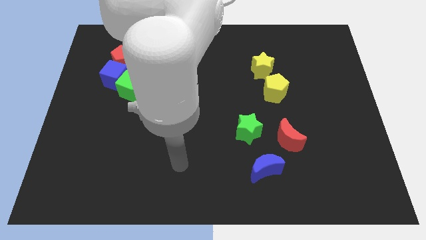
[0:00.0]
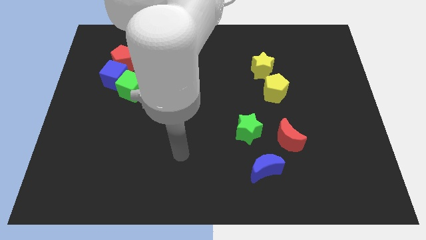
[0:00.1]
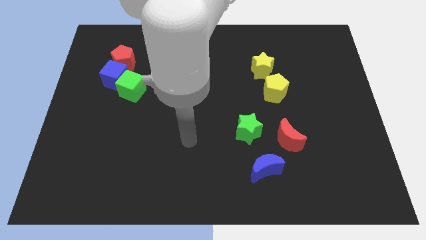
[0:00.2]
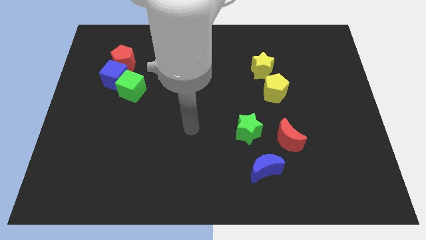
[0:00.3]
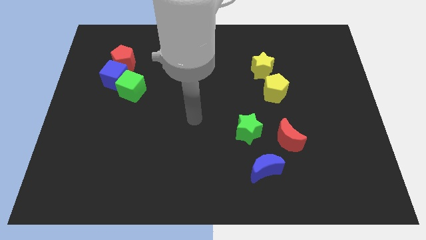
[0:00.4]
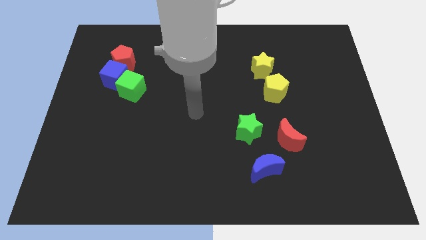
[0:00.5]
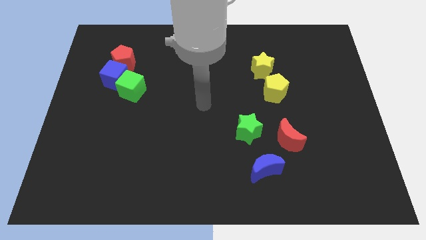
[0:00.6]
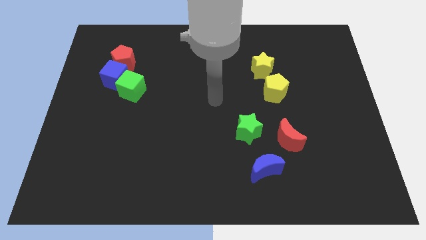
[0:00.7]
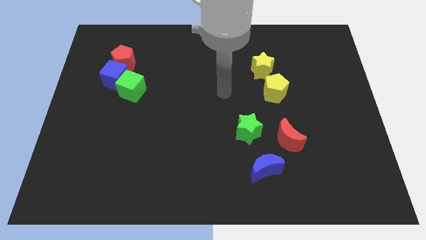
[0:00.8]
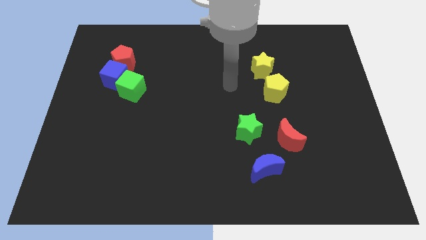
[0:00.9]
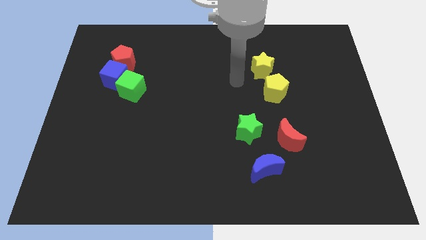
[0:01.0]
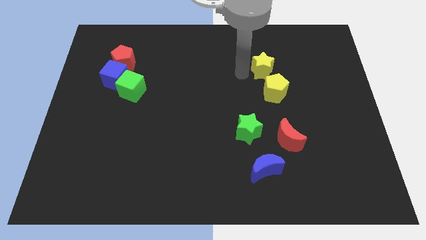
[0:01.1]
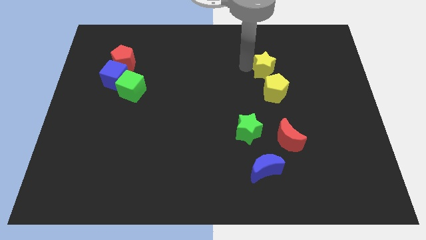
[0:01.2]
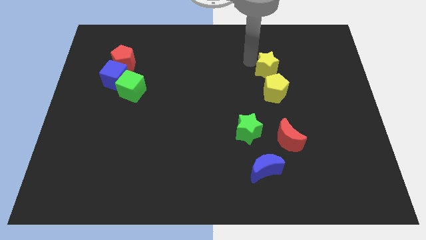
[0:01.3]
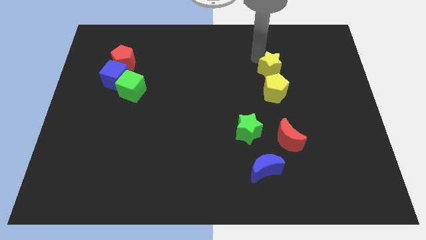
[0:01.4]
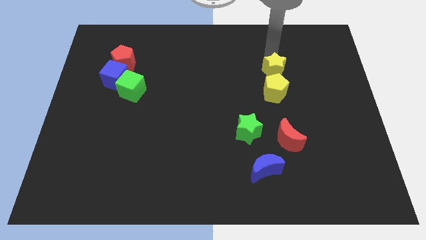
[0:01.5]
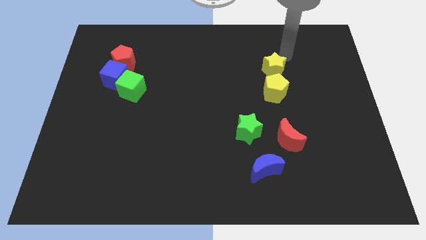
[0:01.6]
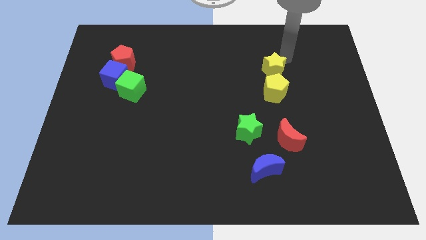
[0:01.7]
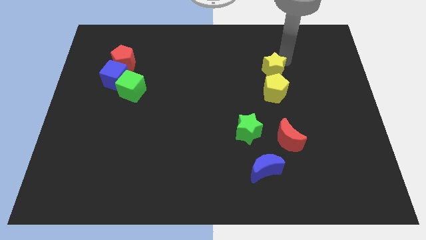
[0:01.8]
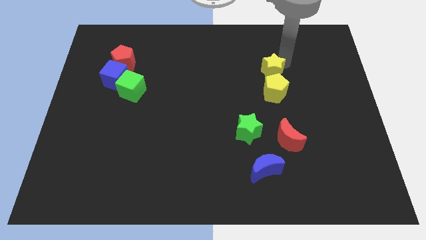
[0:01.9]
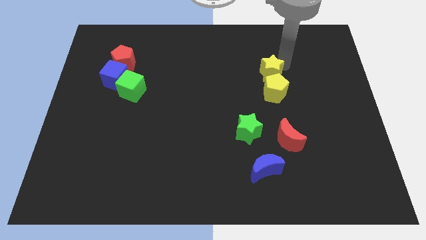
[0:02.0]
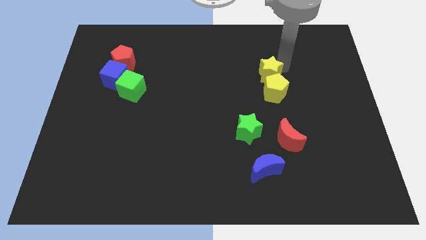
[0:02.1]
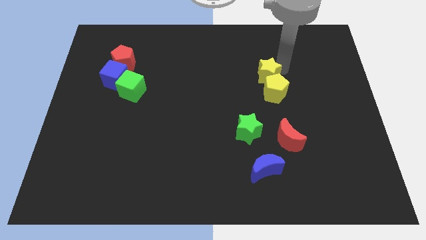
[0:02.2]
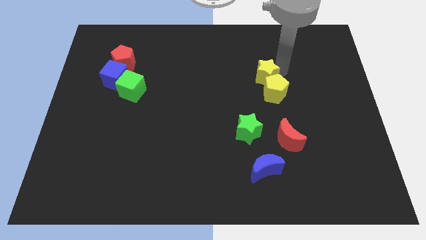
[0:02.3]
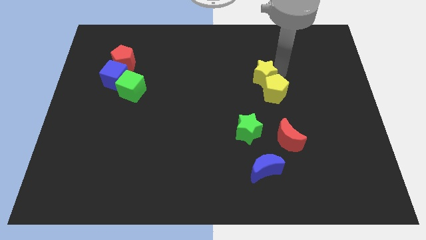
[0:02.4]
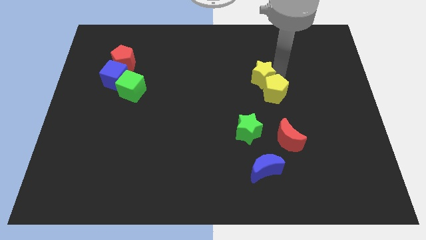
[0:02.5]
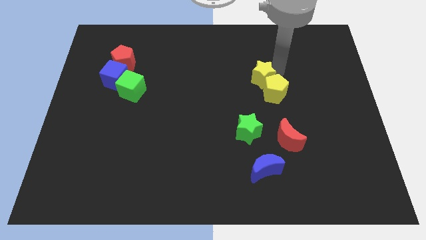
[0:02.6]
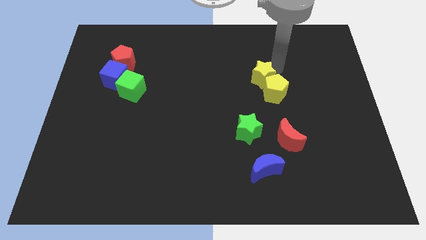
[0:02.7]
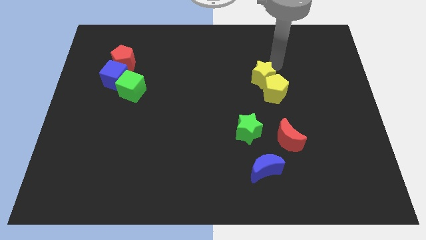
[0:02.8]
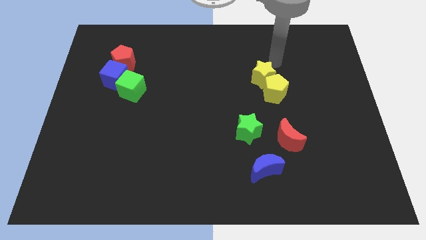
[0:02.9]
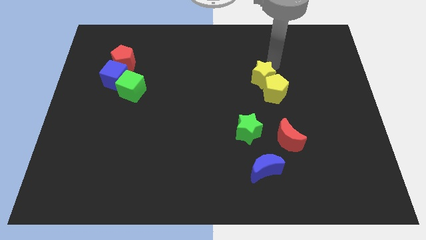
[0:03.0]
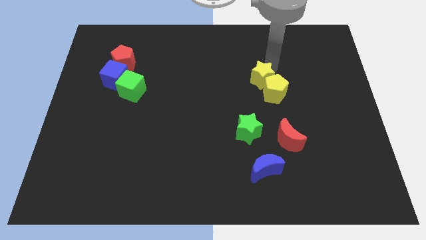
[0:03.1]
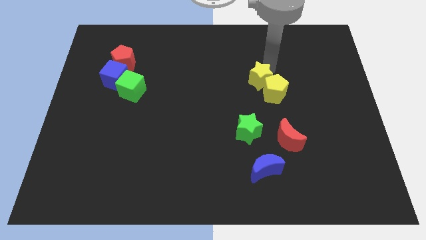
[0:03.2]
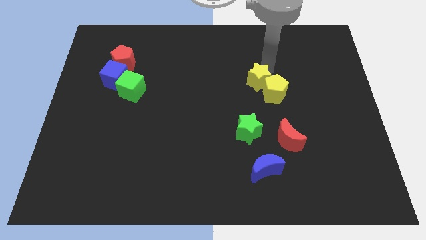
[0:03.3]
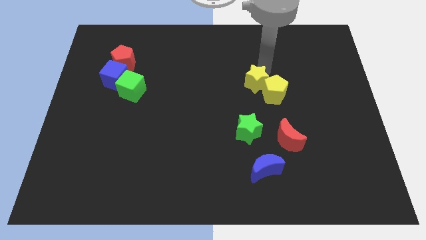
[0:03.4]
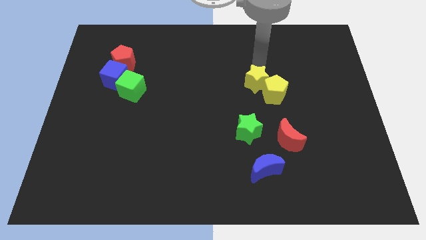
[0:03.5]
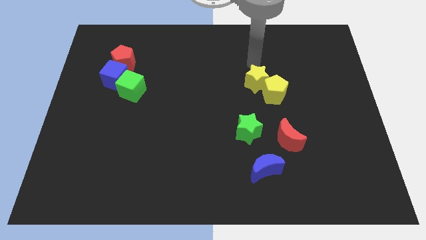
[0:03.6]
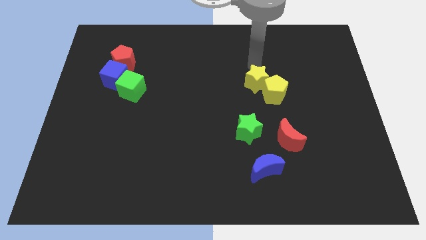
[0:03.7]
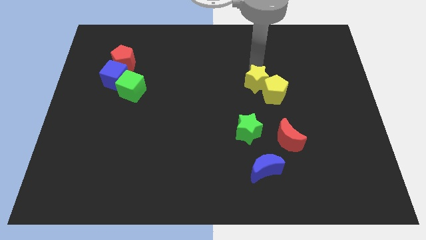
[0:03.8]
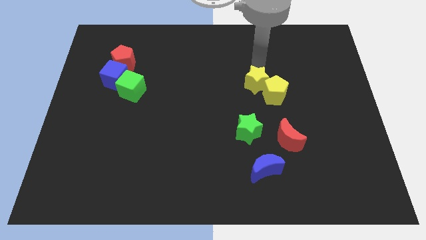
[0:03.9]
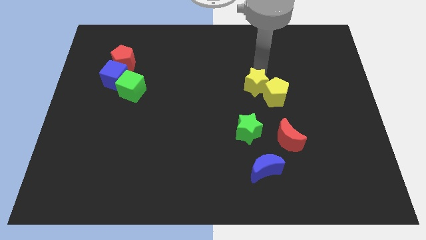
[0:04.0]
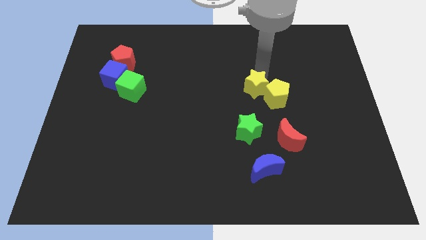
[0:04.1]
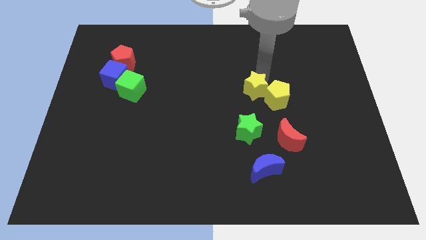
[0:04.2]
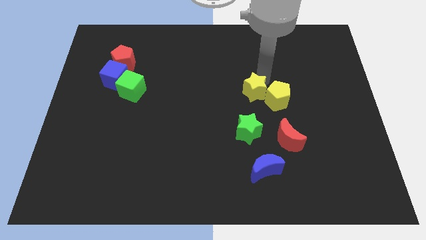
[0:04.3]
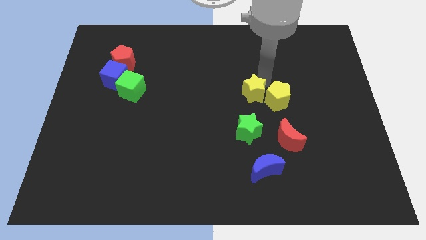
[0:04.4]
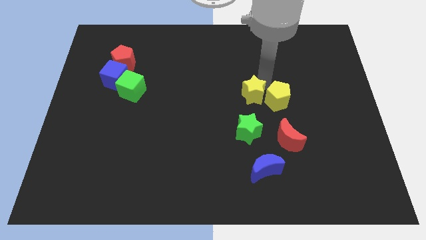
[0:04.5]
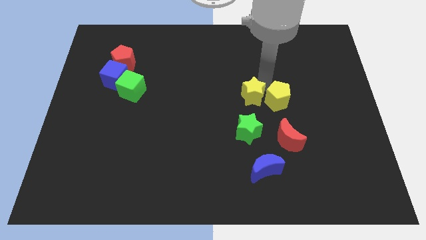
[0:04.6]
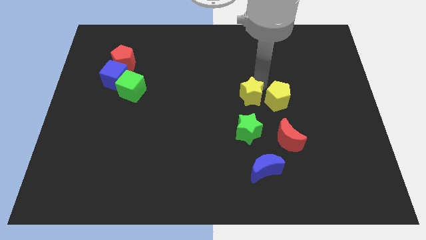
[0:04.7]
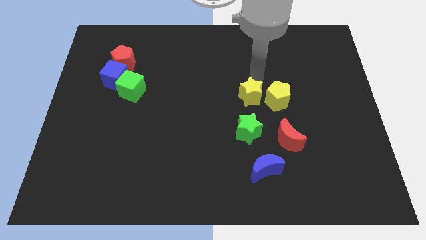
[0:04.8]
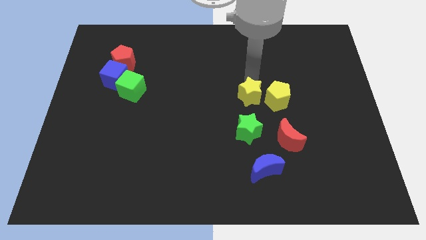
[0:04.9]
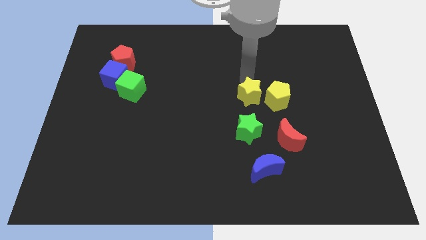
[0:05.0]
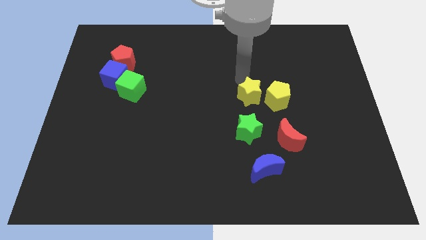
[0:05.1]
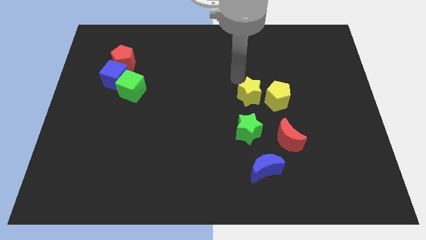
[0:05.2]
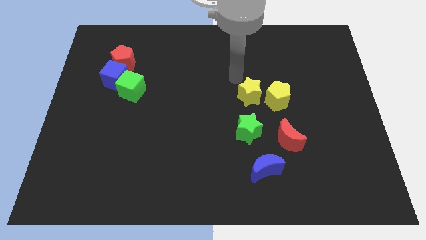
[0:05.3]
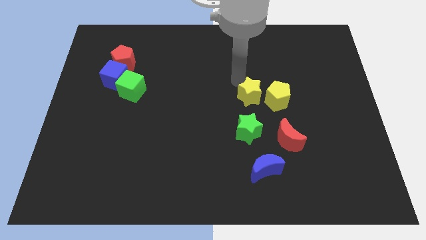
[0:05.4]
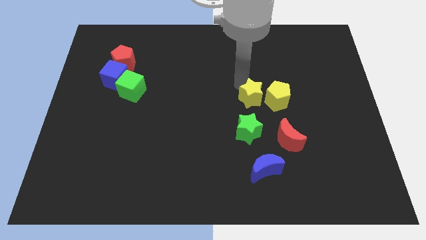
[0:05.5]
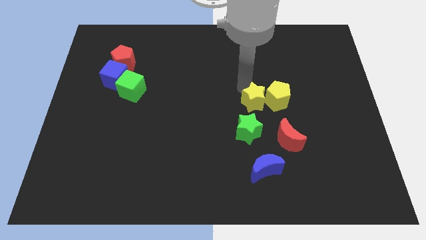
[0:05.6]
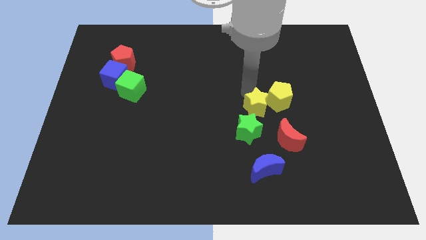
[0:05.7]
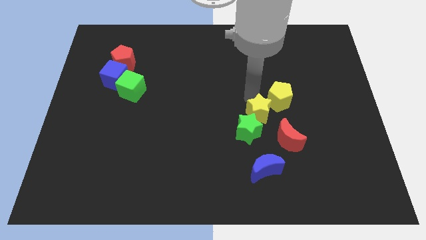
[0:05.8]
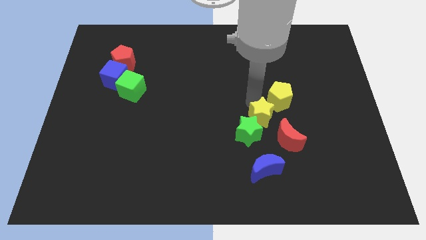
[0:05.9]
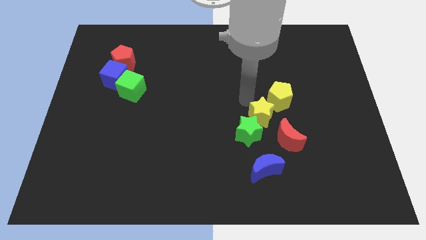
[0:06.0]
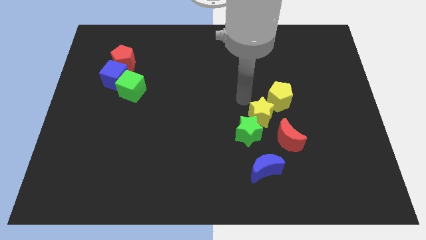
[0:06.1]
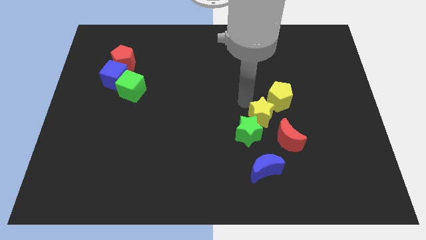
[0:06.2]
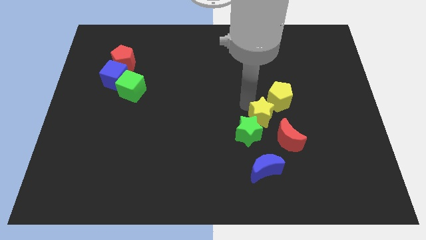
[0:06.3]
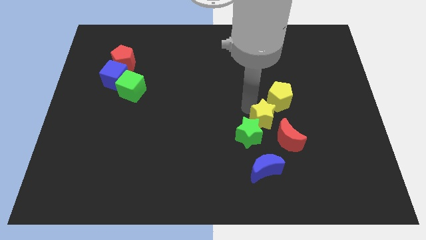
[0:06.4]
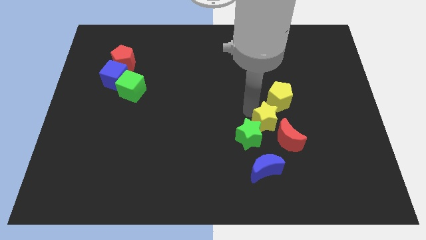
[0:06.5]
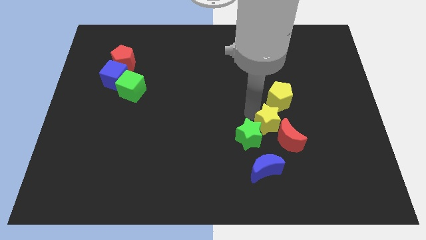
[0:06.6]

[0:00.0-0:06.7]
push the yellow star to the red moon
